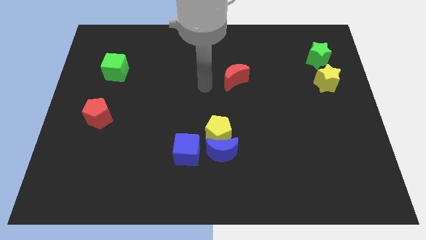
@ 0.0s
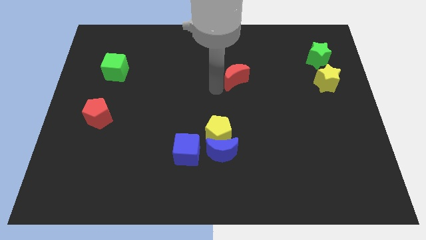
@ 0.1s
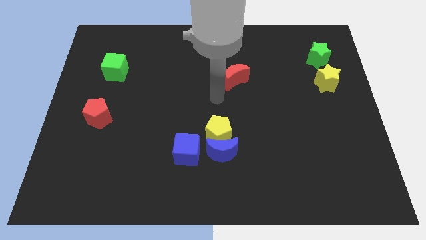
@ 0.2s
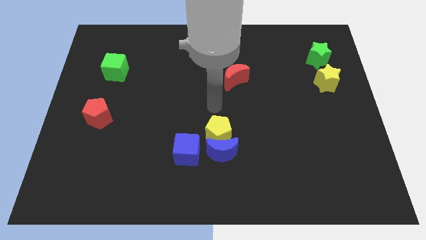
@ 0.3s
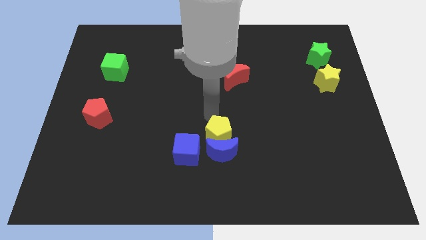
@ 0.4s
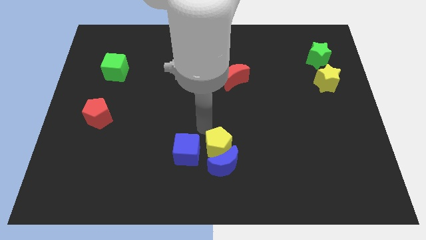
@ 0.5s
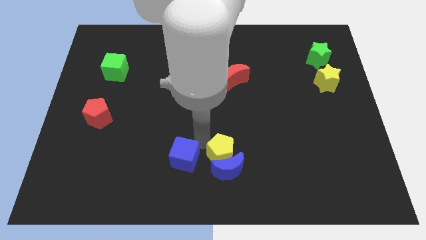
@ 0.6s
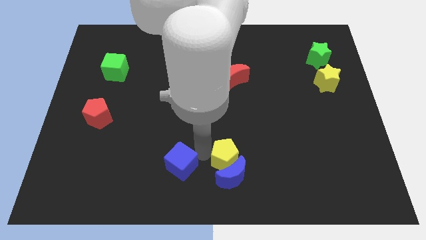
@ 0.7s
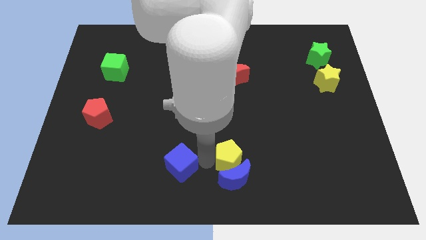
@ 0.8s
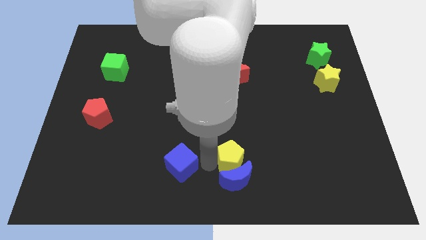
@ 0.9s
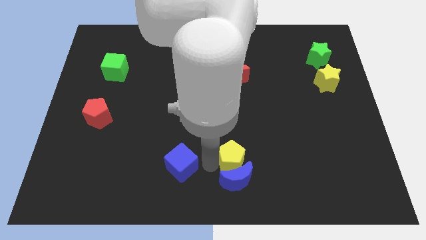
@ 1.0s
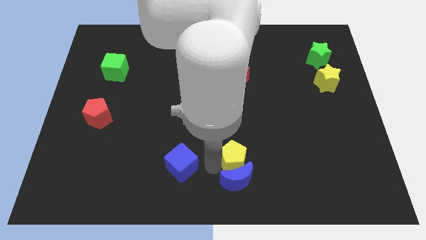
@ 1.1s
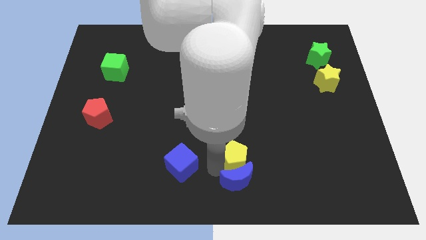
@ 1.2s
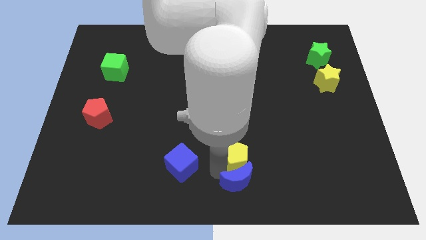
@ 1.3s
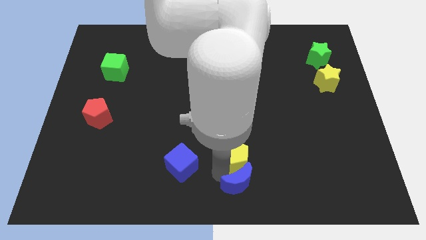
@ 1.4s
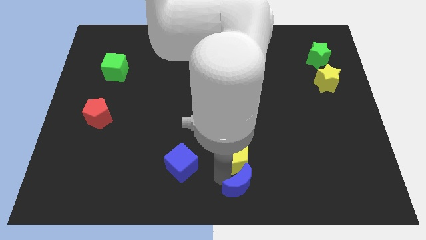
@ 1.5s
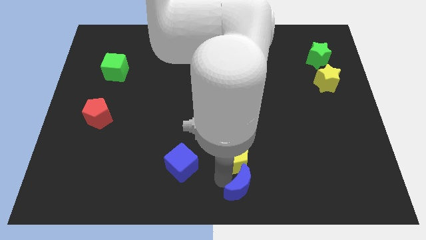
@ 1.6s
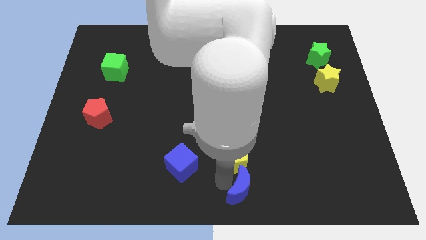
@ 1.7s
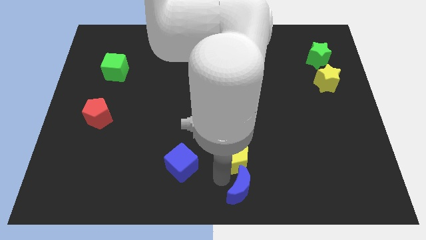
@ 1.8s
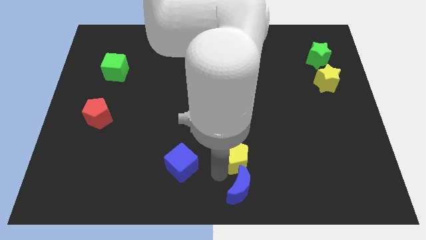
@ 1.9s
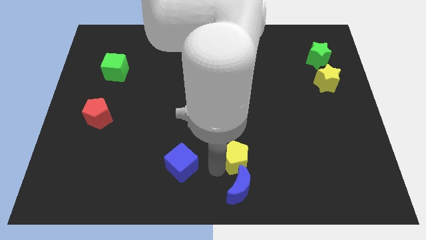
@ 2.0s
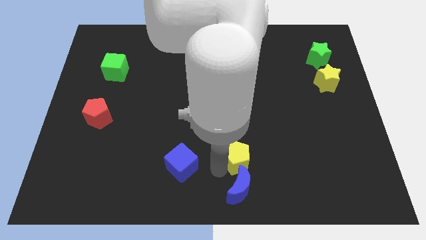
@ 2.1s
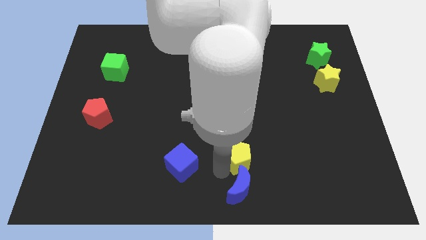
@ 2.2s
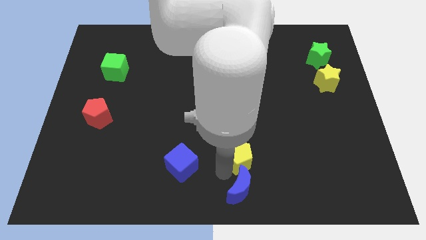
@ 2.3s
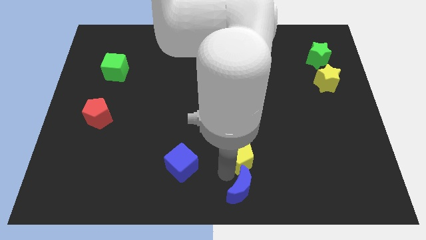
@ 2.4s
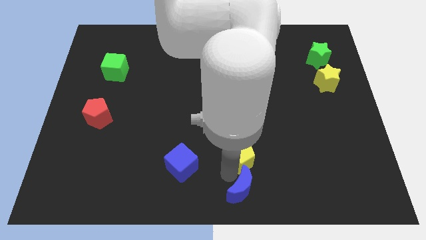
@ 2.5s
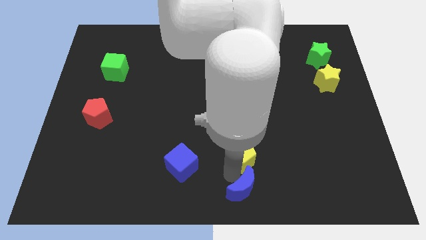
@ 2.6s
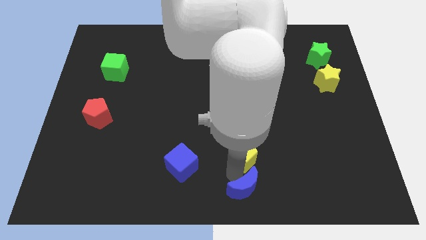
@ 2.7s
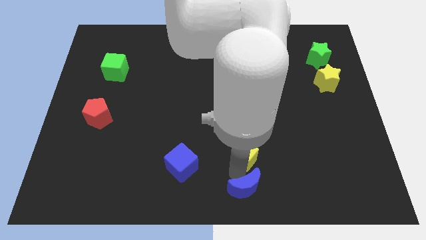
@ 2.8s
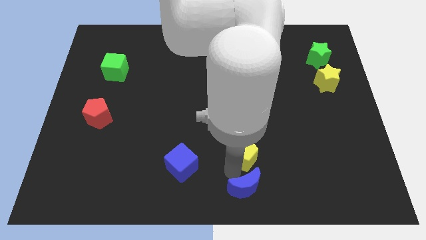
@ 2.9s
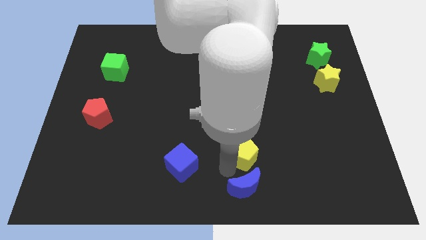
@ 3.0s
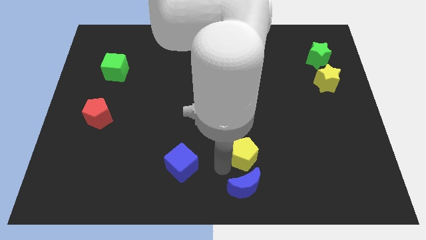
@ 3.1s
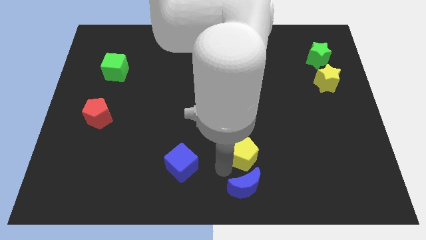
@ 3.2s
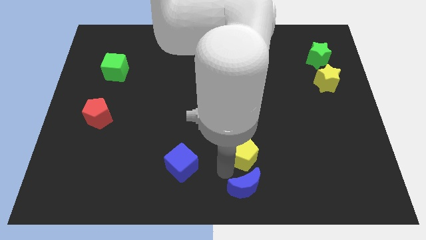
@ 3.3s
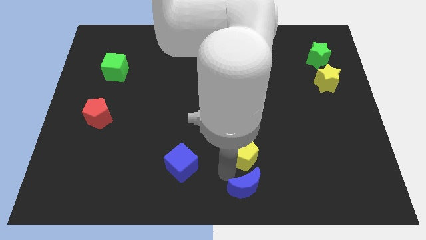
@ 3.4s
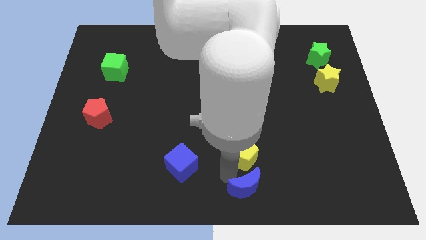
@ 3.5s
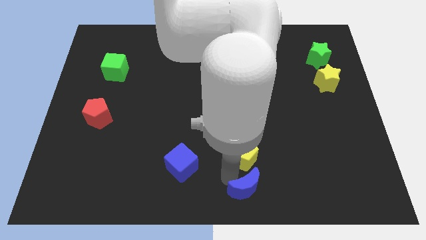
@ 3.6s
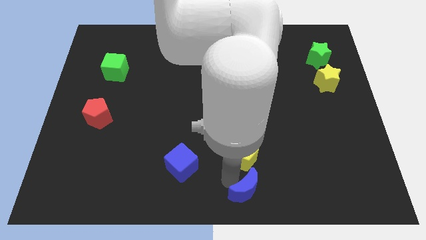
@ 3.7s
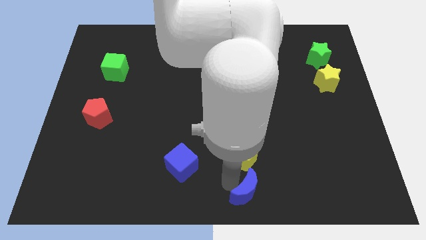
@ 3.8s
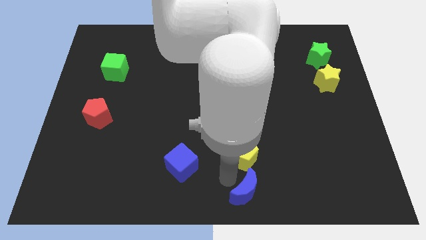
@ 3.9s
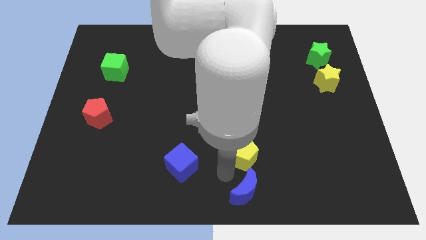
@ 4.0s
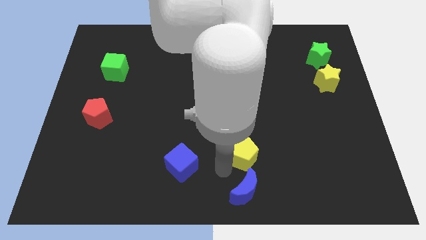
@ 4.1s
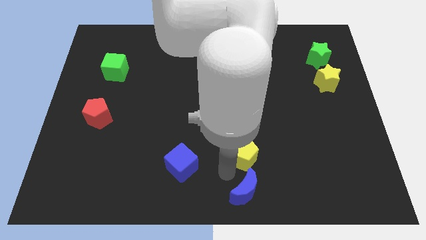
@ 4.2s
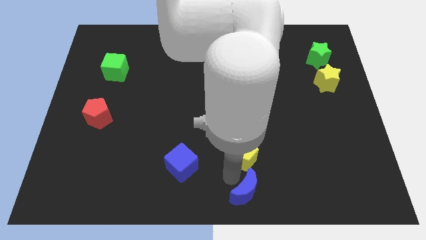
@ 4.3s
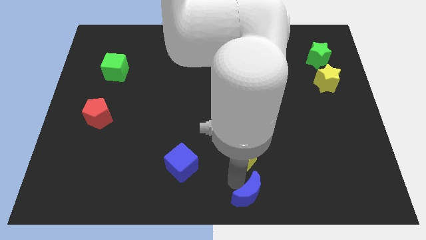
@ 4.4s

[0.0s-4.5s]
pull the blue moon apart from the yellow pentagon and blue cube

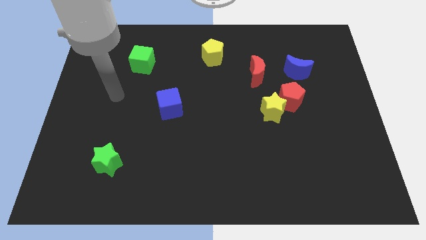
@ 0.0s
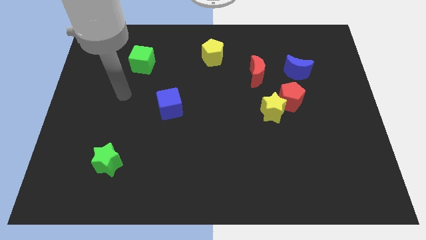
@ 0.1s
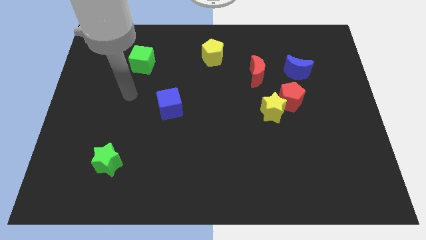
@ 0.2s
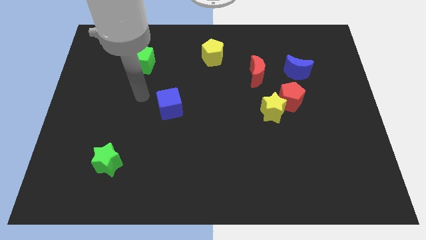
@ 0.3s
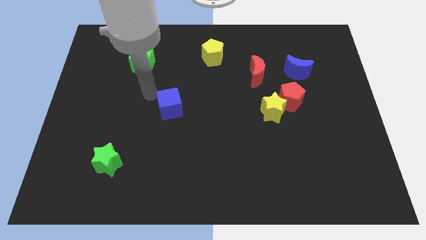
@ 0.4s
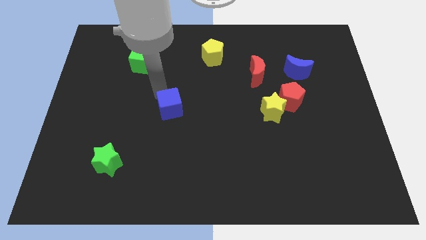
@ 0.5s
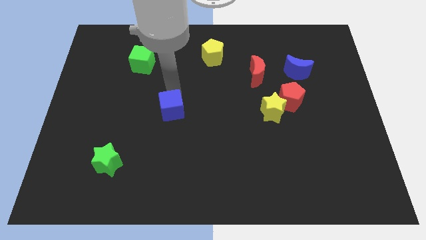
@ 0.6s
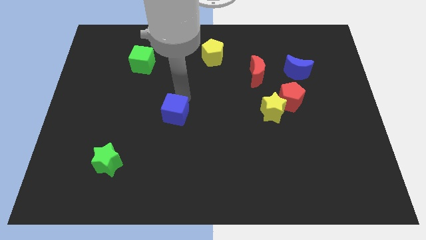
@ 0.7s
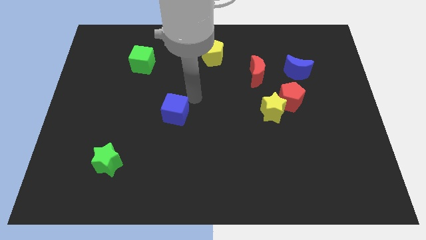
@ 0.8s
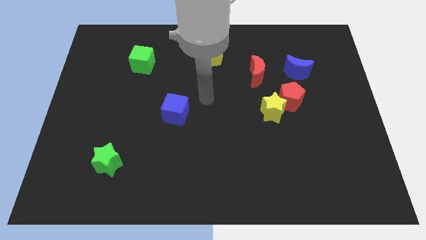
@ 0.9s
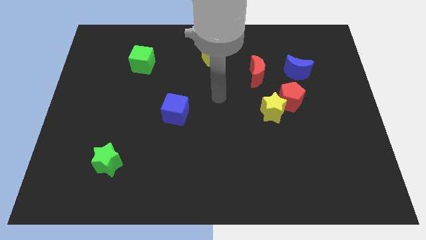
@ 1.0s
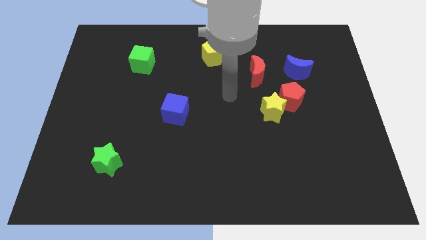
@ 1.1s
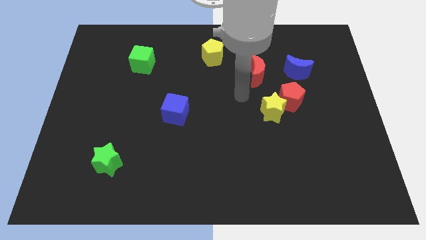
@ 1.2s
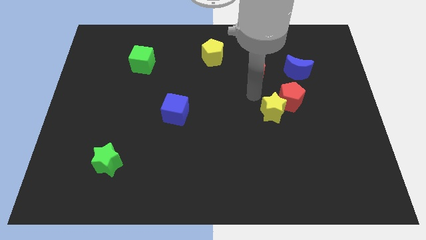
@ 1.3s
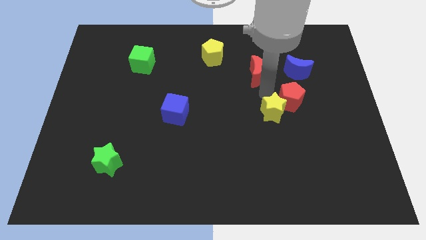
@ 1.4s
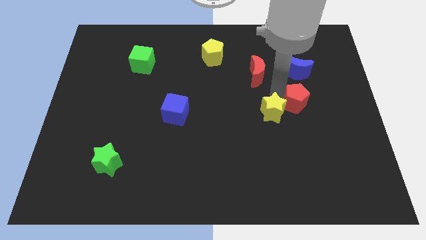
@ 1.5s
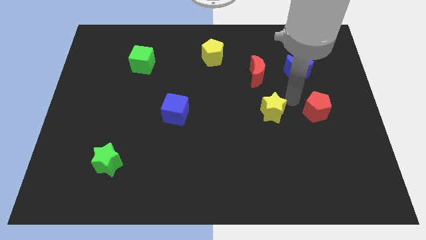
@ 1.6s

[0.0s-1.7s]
separate the yellow star from the red pentagon

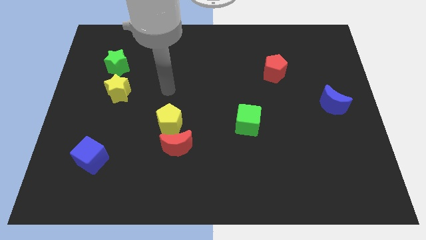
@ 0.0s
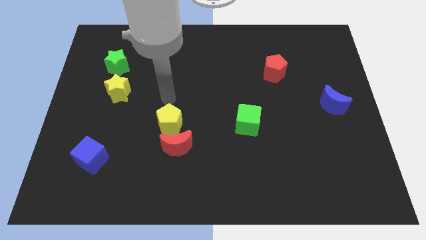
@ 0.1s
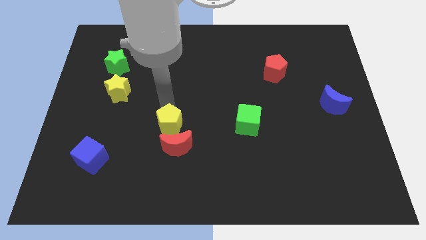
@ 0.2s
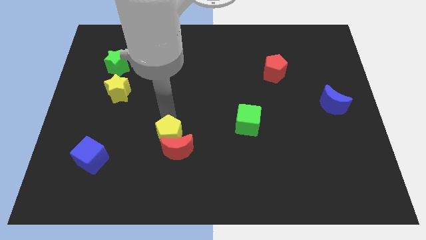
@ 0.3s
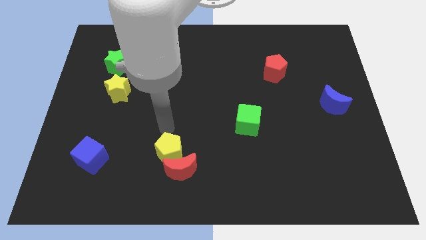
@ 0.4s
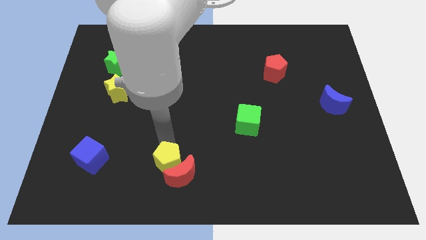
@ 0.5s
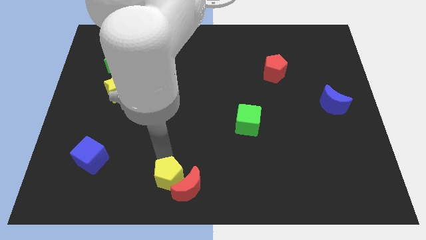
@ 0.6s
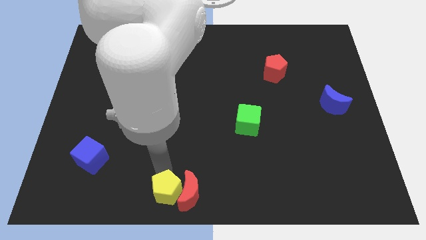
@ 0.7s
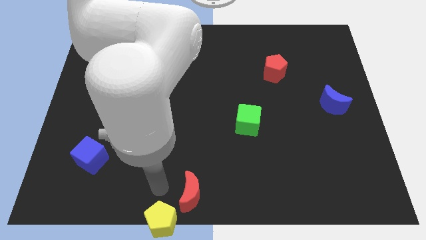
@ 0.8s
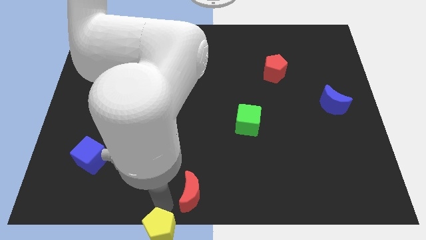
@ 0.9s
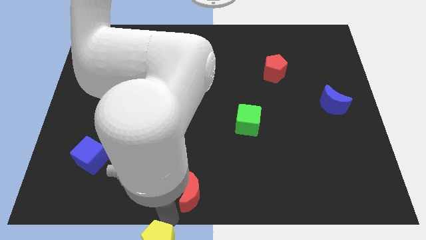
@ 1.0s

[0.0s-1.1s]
pull the red moon apart from the yellow pentagon

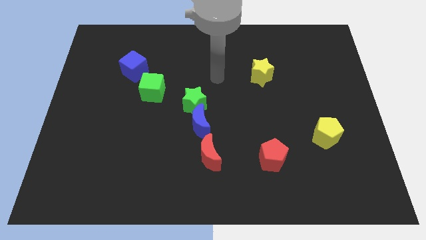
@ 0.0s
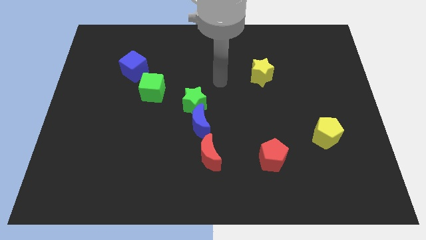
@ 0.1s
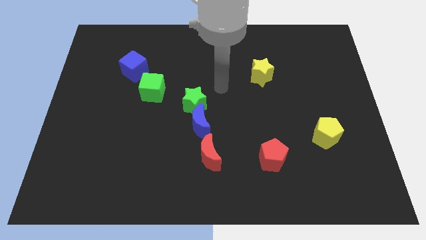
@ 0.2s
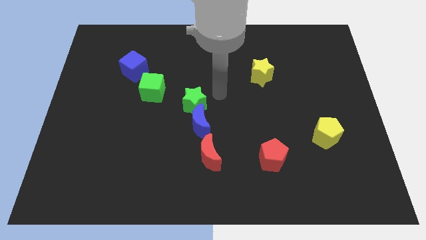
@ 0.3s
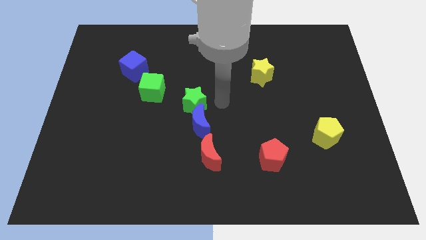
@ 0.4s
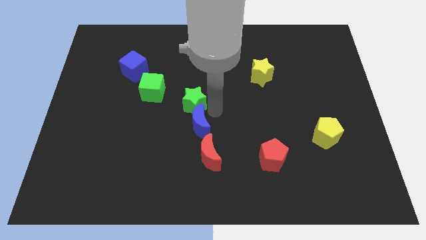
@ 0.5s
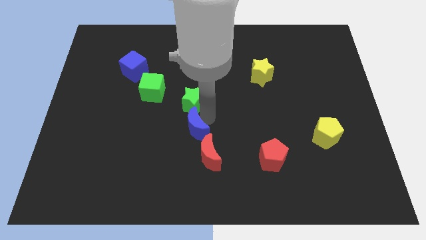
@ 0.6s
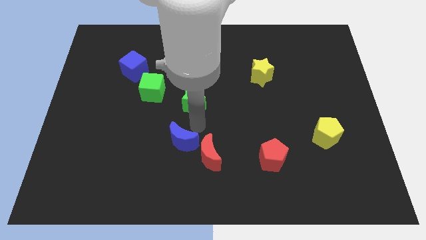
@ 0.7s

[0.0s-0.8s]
pull the green star apart from the blue moon

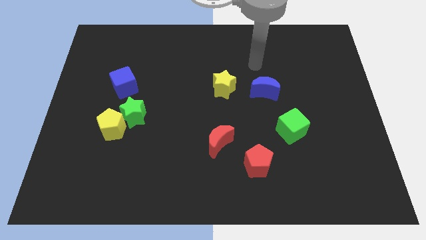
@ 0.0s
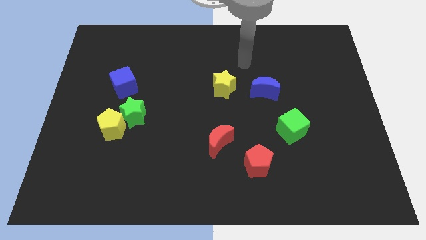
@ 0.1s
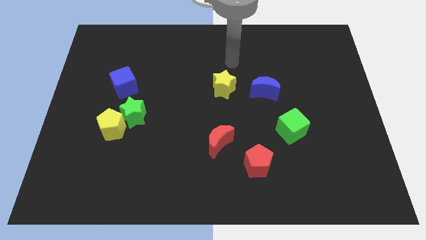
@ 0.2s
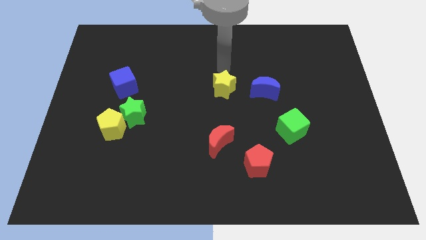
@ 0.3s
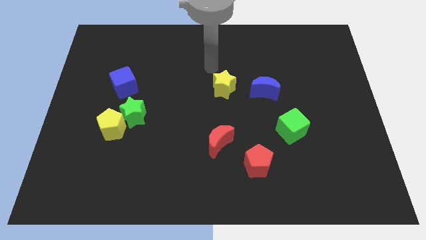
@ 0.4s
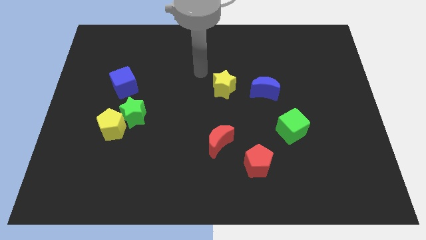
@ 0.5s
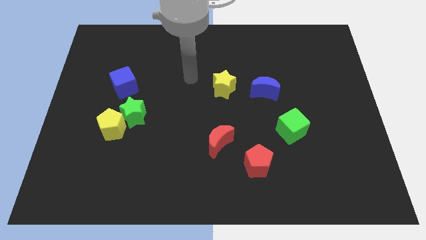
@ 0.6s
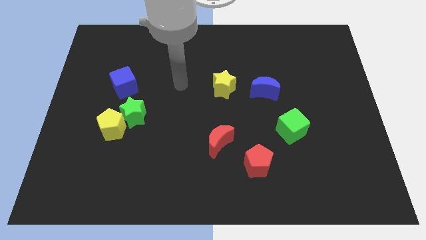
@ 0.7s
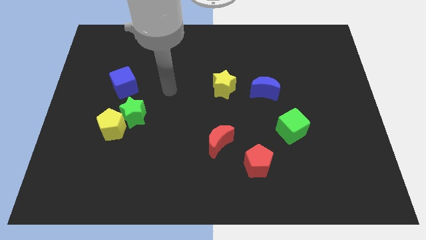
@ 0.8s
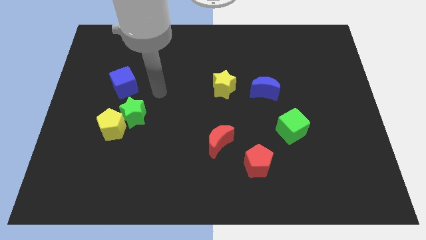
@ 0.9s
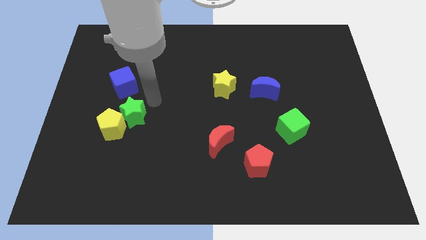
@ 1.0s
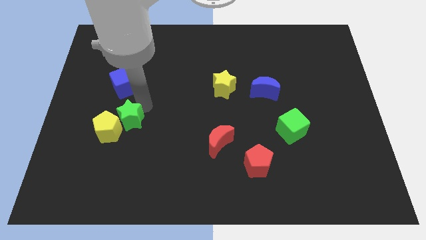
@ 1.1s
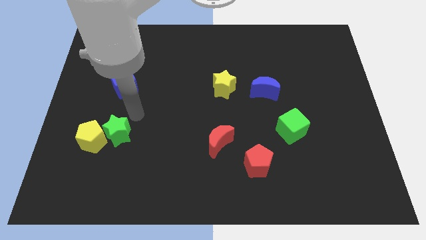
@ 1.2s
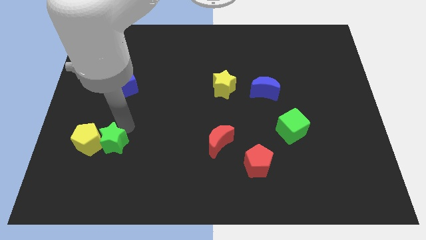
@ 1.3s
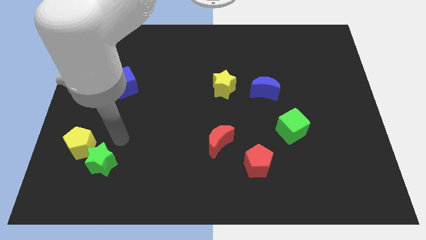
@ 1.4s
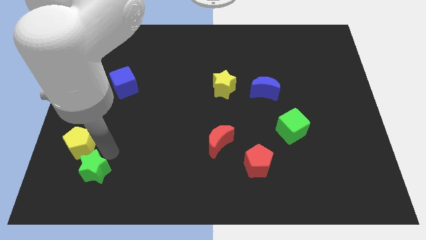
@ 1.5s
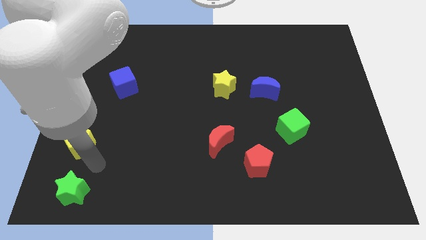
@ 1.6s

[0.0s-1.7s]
move the yellow pentagon away from the green star
